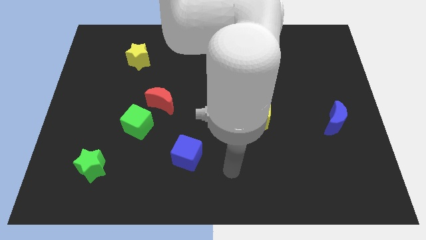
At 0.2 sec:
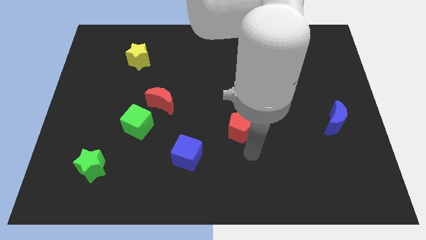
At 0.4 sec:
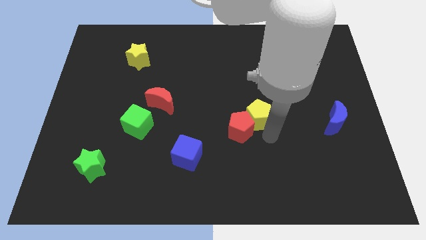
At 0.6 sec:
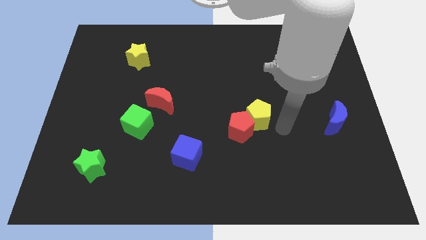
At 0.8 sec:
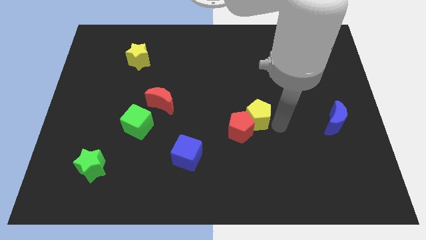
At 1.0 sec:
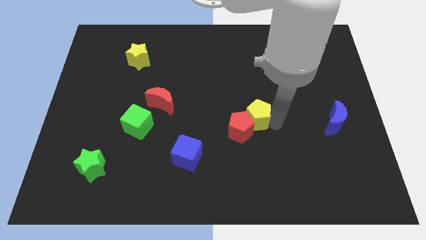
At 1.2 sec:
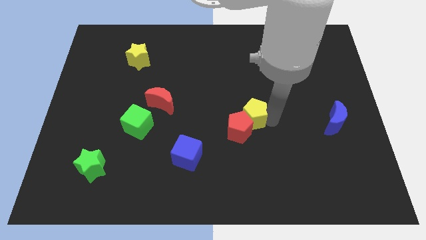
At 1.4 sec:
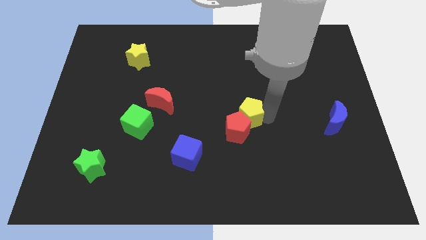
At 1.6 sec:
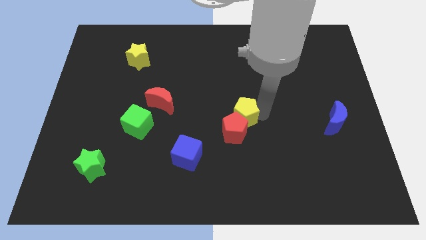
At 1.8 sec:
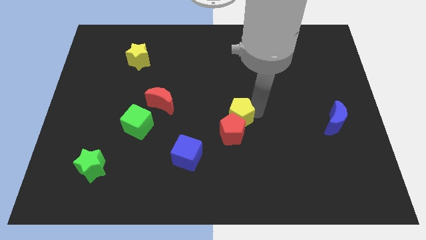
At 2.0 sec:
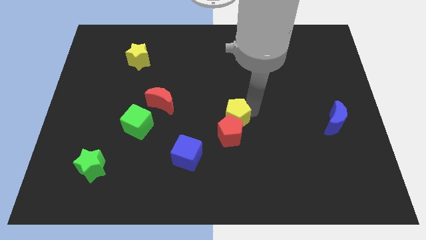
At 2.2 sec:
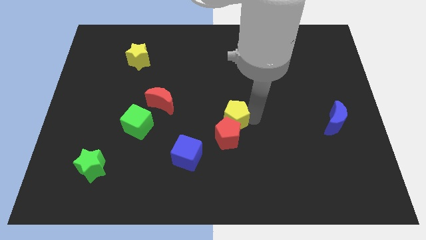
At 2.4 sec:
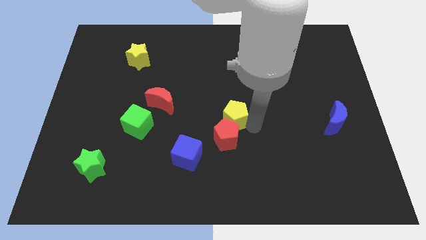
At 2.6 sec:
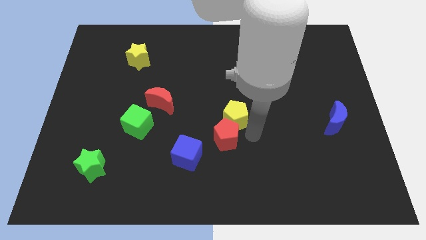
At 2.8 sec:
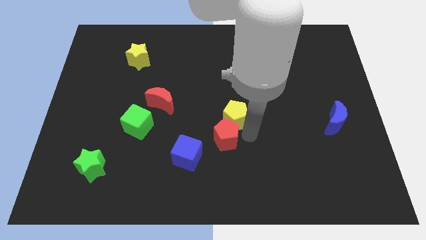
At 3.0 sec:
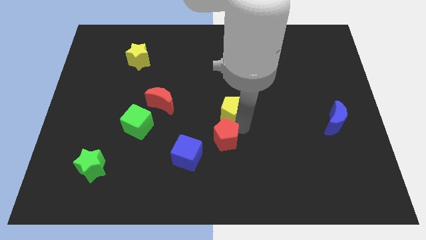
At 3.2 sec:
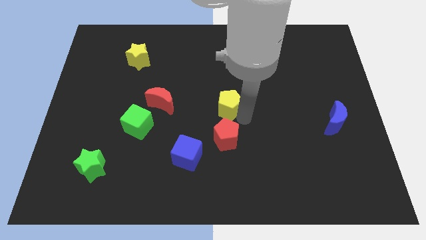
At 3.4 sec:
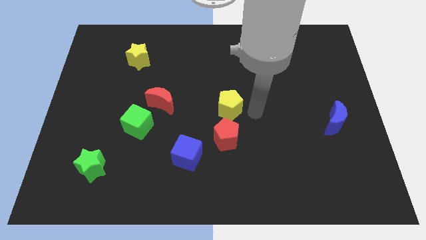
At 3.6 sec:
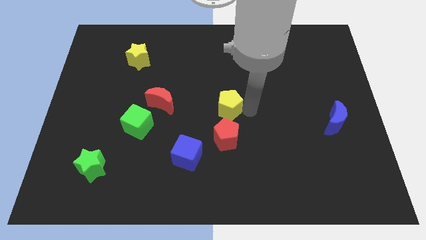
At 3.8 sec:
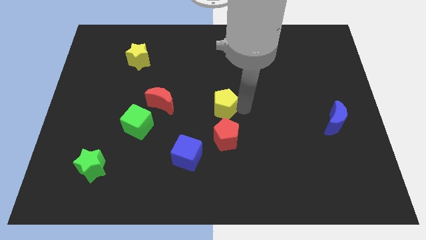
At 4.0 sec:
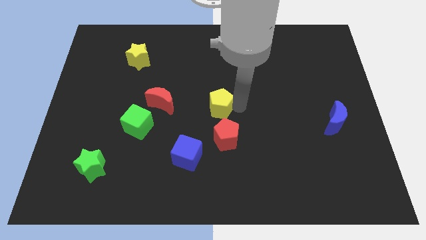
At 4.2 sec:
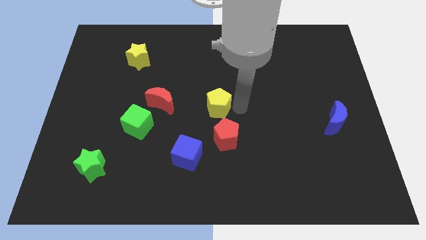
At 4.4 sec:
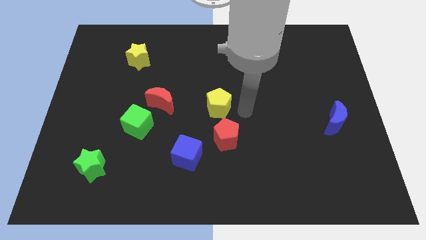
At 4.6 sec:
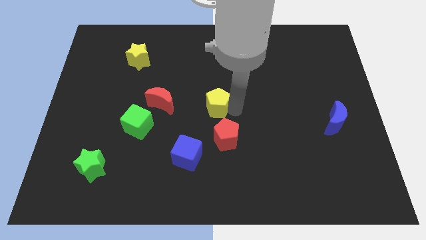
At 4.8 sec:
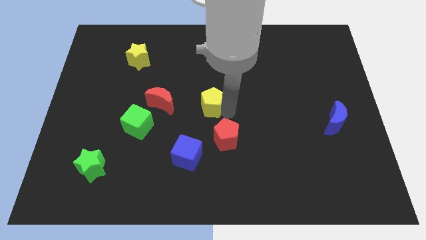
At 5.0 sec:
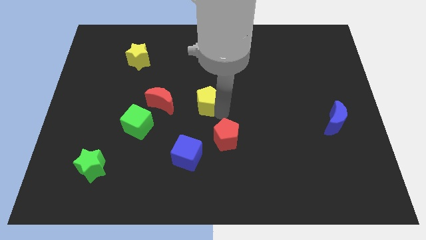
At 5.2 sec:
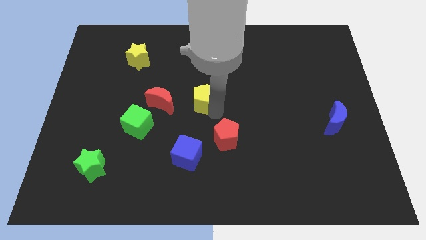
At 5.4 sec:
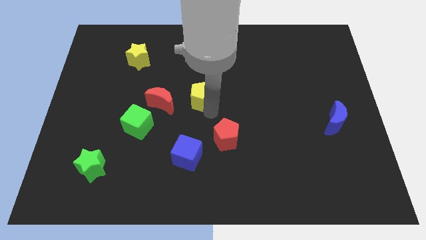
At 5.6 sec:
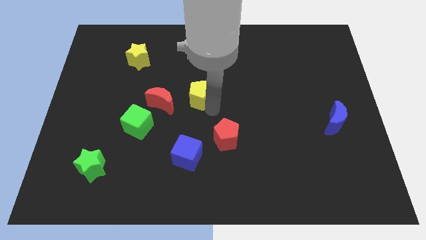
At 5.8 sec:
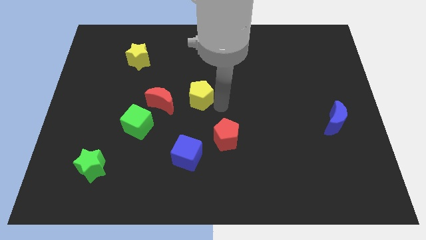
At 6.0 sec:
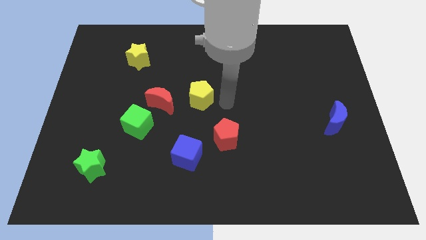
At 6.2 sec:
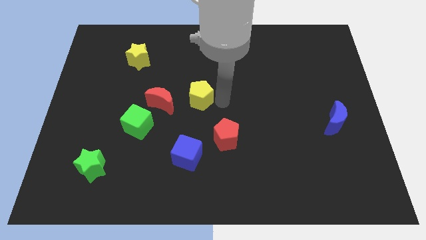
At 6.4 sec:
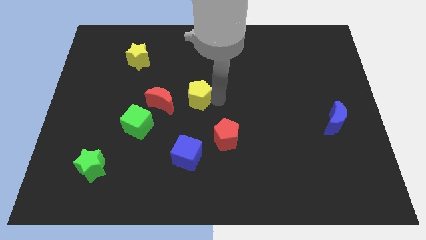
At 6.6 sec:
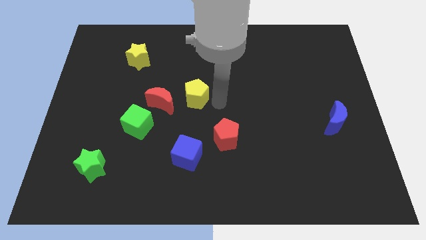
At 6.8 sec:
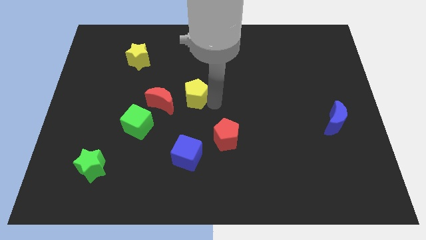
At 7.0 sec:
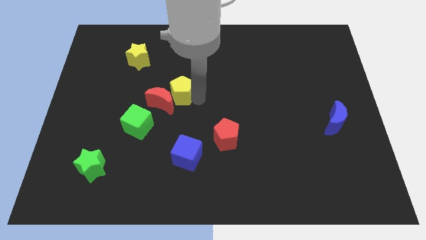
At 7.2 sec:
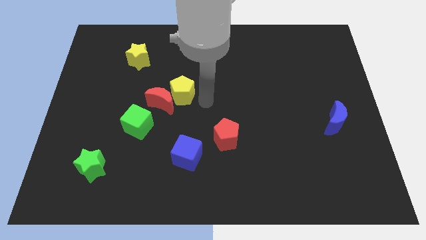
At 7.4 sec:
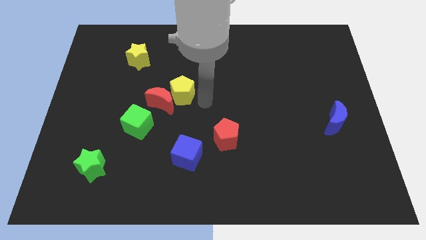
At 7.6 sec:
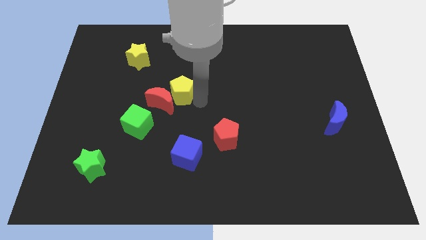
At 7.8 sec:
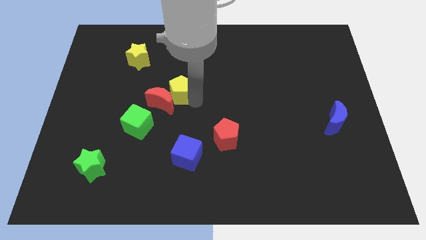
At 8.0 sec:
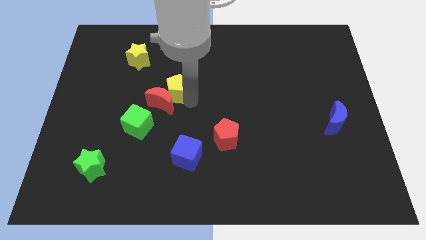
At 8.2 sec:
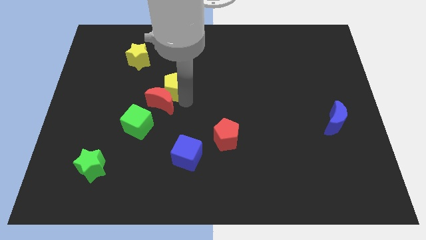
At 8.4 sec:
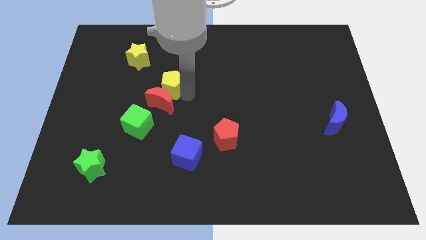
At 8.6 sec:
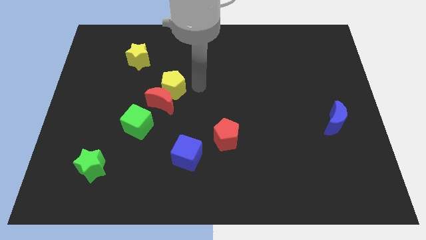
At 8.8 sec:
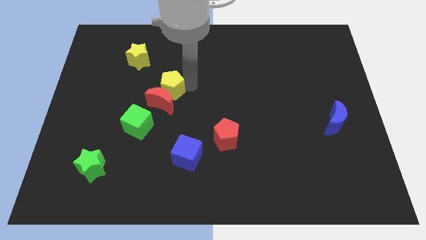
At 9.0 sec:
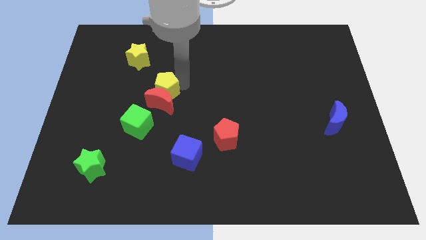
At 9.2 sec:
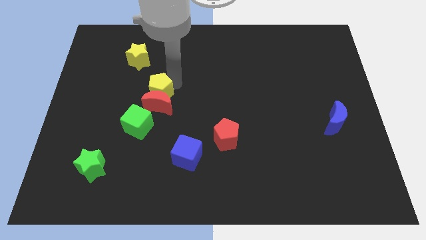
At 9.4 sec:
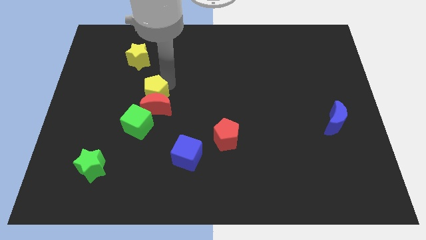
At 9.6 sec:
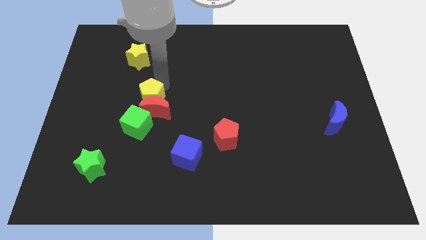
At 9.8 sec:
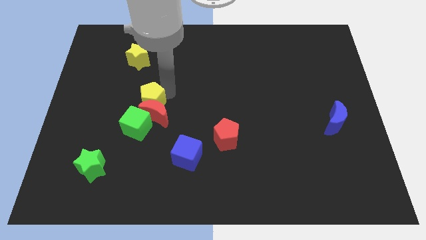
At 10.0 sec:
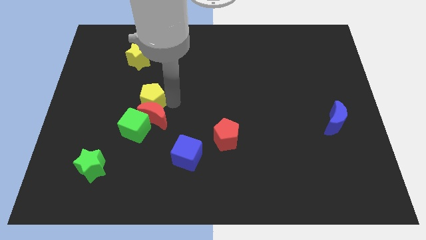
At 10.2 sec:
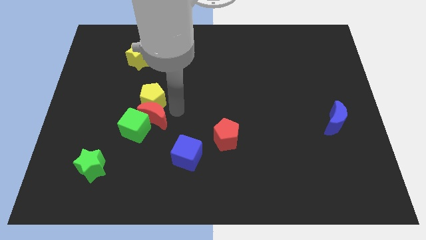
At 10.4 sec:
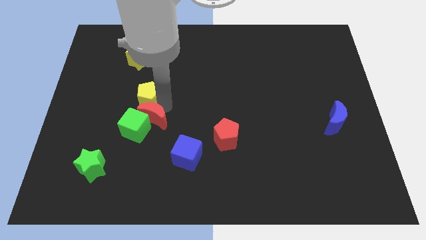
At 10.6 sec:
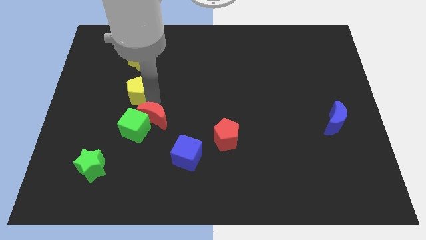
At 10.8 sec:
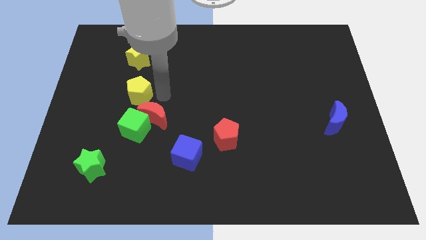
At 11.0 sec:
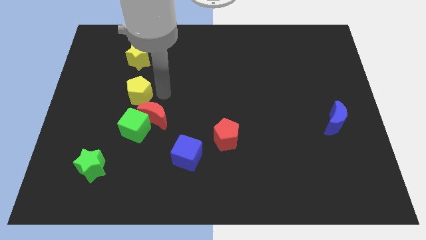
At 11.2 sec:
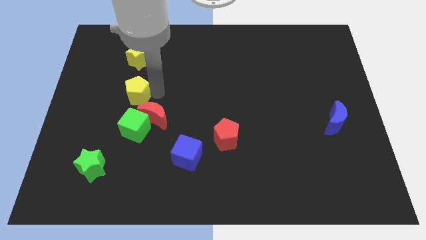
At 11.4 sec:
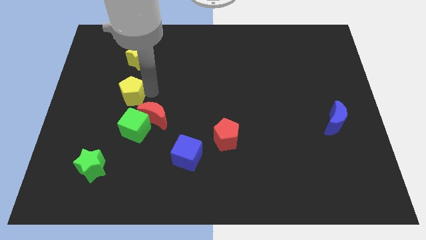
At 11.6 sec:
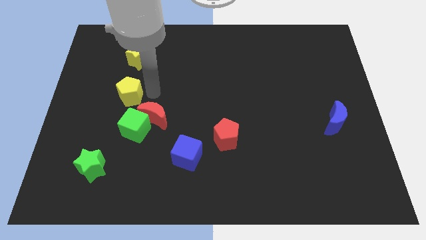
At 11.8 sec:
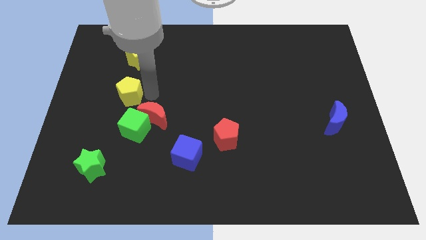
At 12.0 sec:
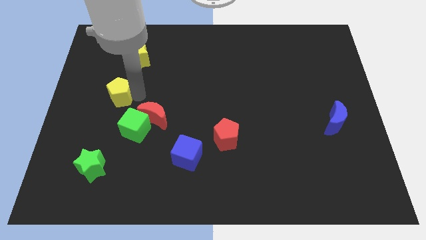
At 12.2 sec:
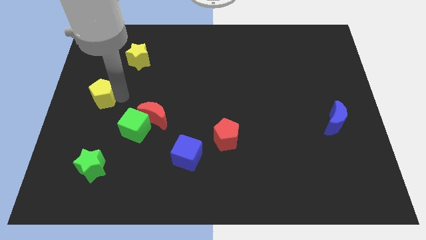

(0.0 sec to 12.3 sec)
slide the yellow pentagon to the left side
